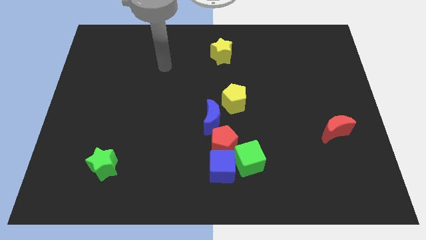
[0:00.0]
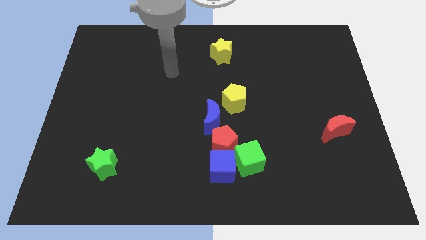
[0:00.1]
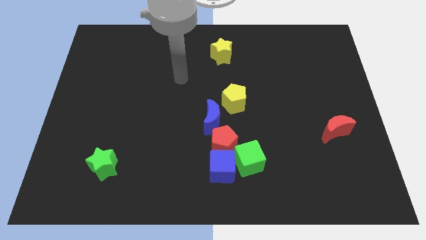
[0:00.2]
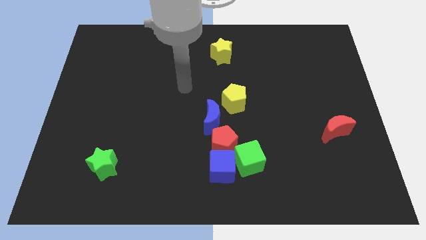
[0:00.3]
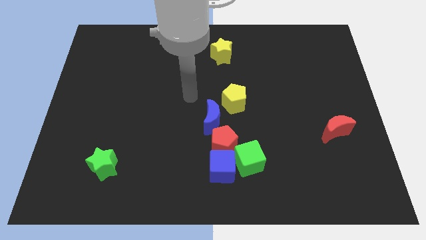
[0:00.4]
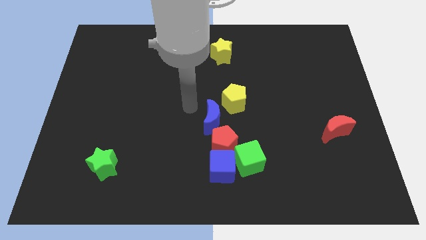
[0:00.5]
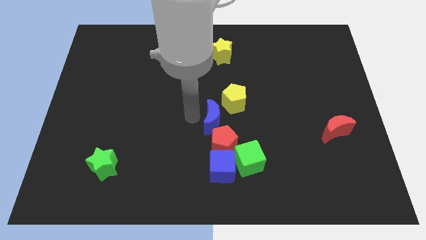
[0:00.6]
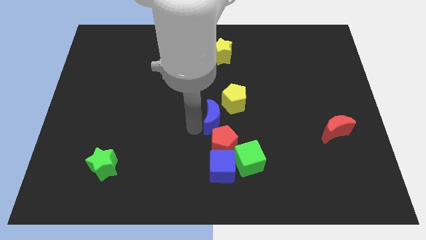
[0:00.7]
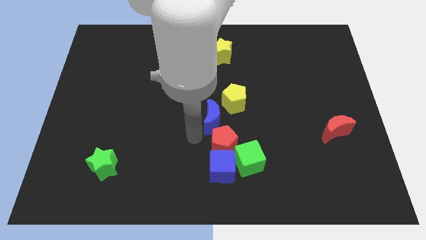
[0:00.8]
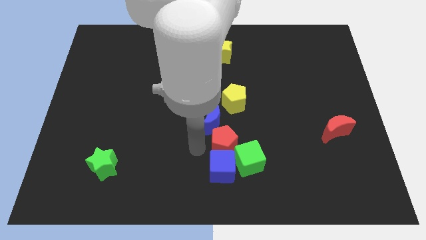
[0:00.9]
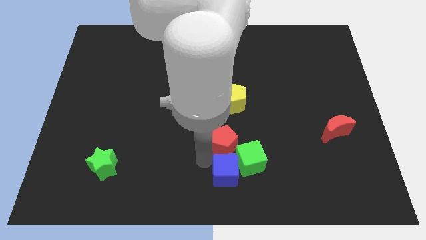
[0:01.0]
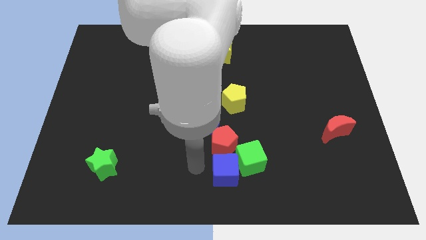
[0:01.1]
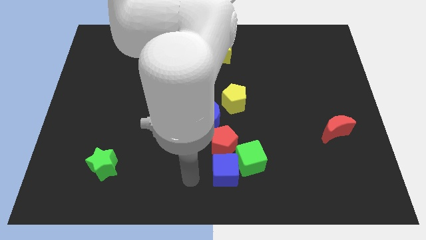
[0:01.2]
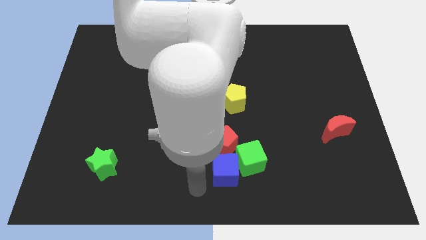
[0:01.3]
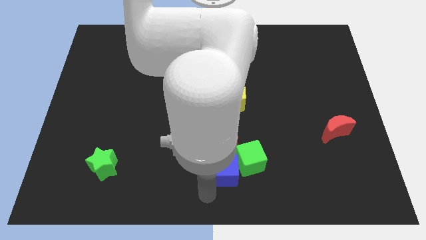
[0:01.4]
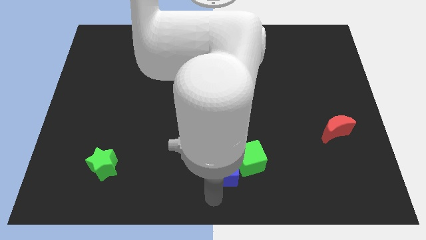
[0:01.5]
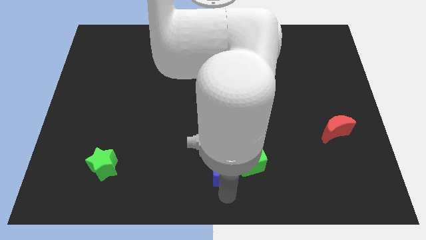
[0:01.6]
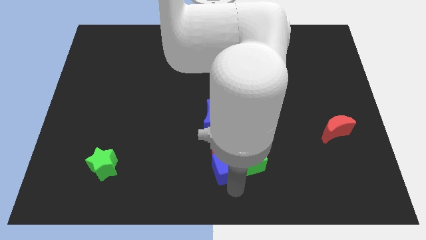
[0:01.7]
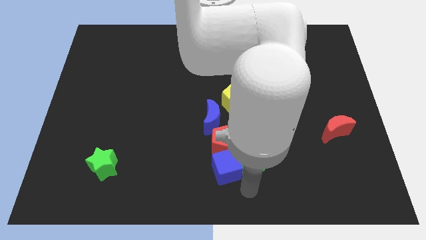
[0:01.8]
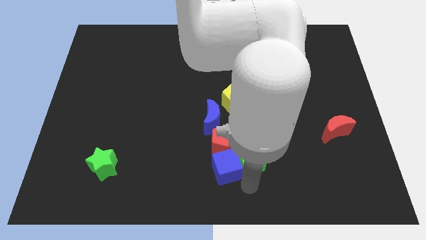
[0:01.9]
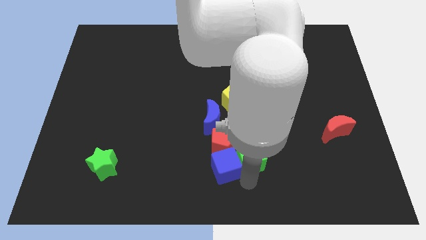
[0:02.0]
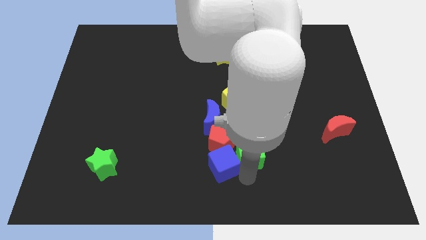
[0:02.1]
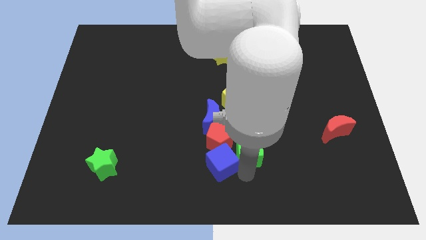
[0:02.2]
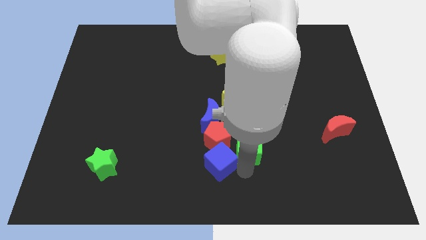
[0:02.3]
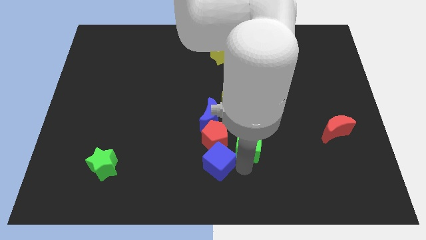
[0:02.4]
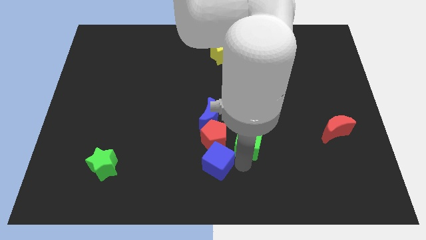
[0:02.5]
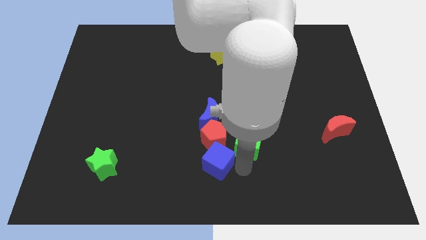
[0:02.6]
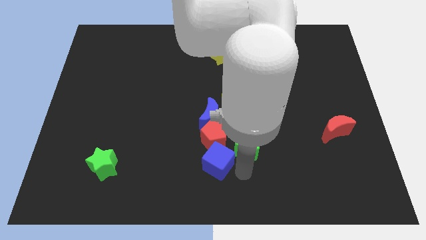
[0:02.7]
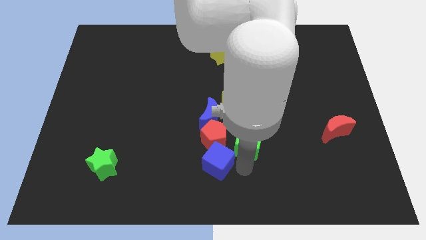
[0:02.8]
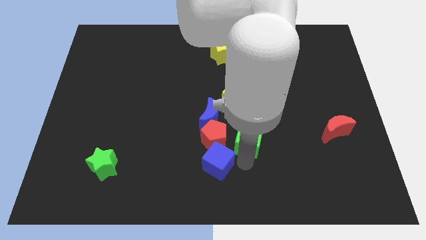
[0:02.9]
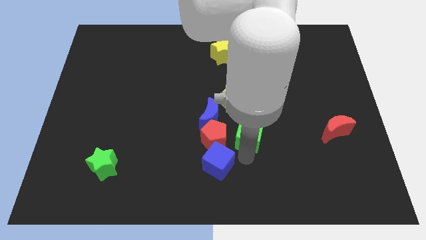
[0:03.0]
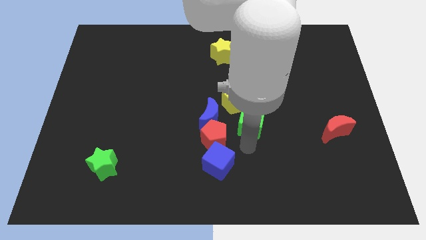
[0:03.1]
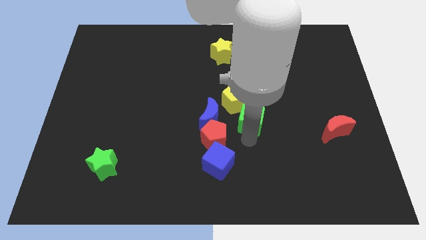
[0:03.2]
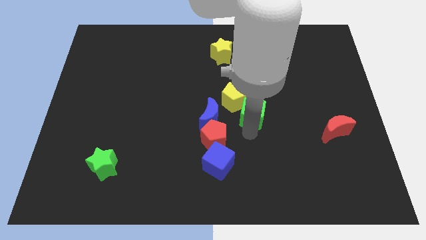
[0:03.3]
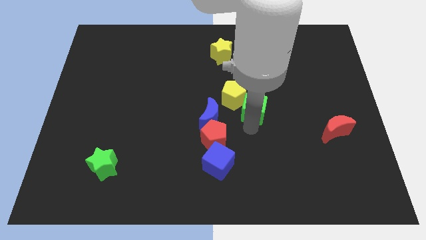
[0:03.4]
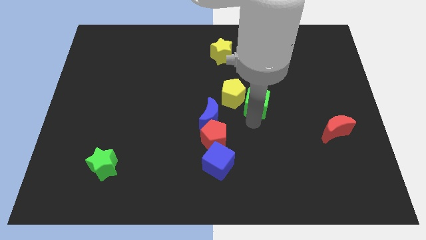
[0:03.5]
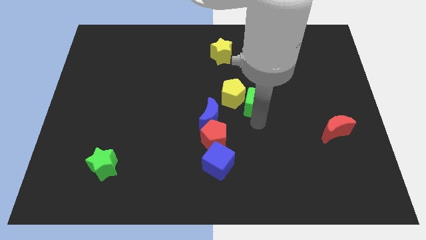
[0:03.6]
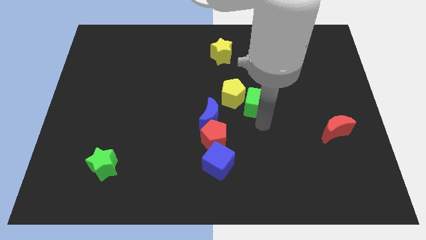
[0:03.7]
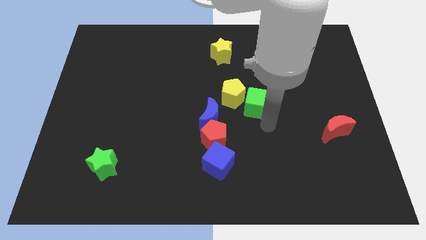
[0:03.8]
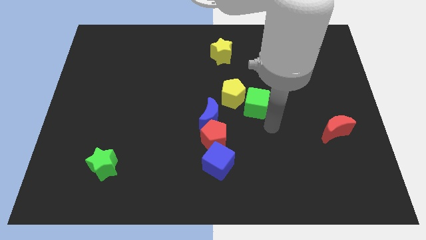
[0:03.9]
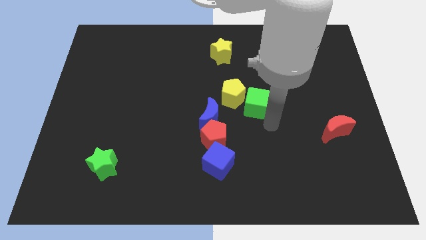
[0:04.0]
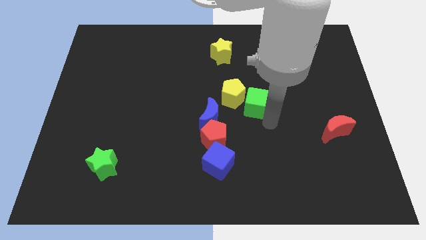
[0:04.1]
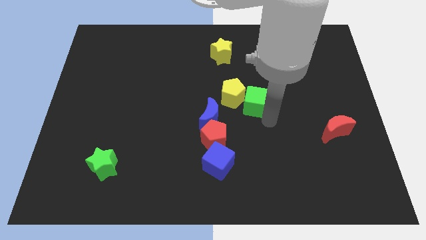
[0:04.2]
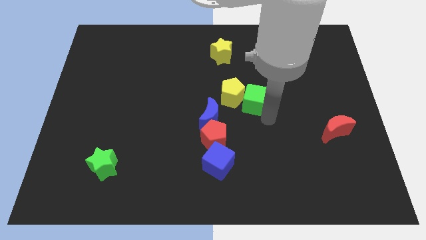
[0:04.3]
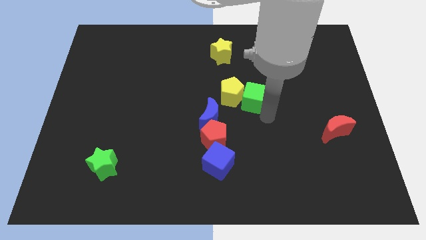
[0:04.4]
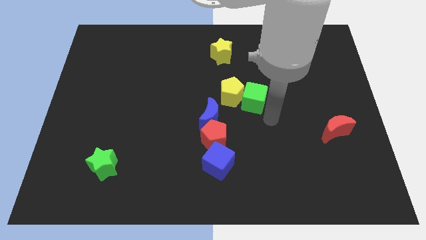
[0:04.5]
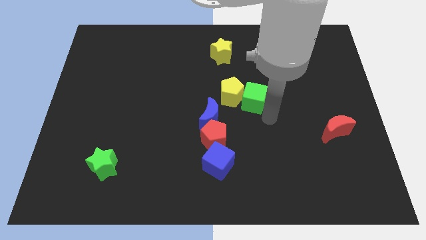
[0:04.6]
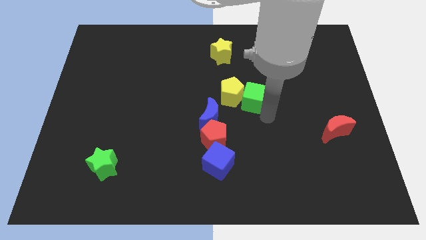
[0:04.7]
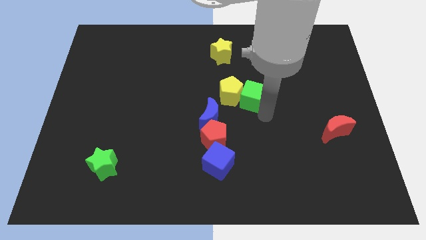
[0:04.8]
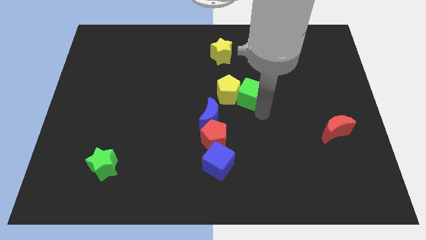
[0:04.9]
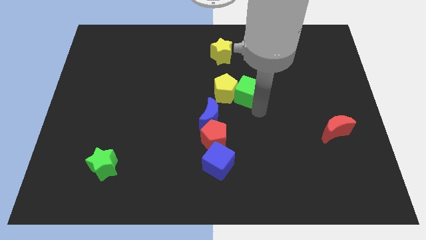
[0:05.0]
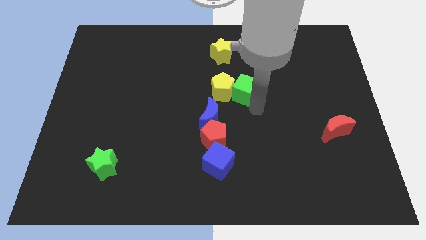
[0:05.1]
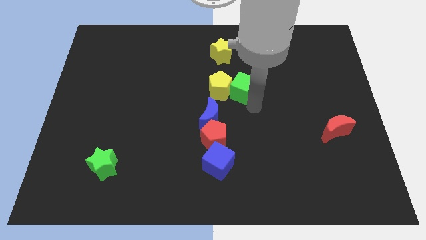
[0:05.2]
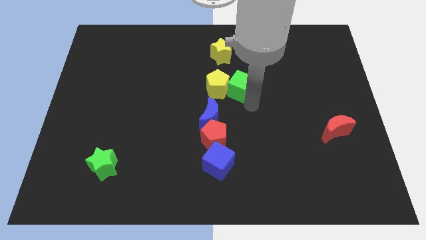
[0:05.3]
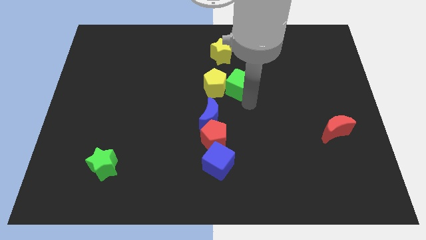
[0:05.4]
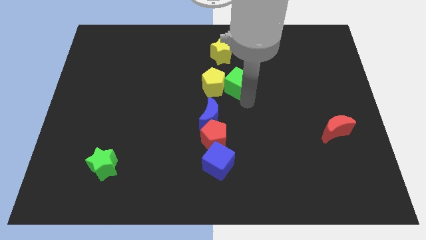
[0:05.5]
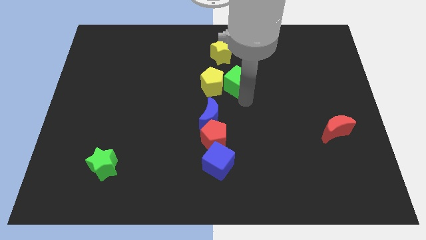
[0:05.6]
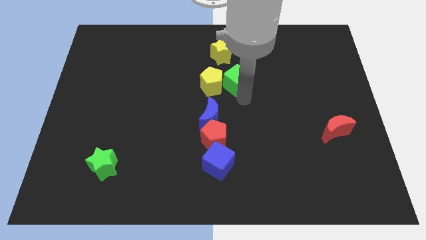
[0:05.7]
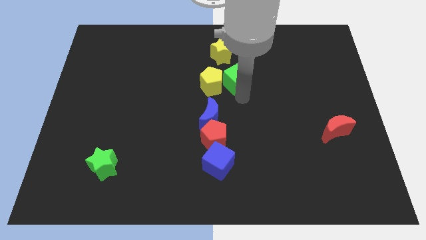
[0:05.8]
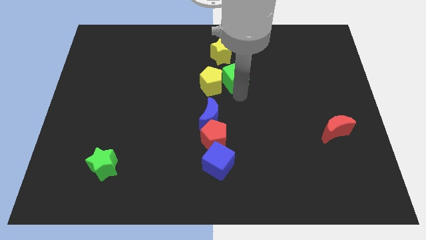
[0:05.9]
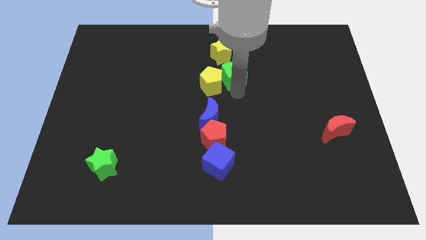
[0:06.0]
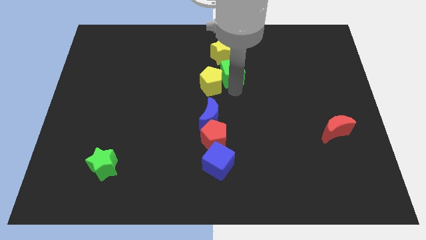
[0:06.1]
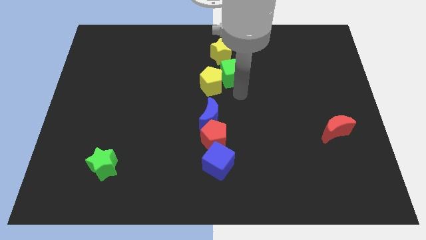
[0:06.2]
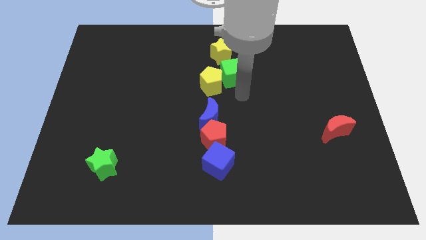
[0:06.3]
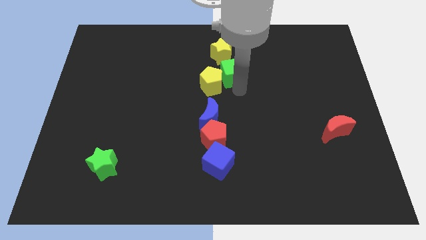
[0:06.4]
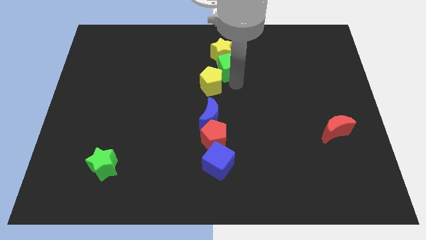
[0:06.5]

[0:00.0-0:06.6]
put the green cube close to the yellow star
